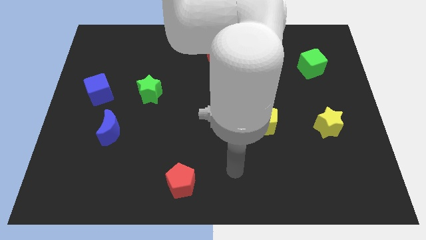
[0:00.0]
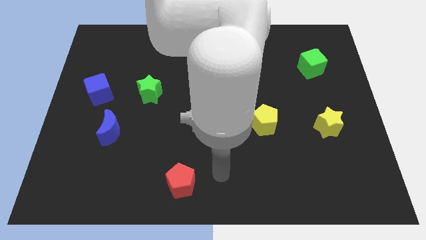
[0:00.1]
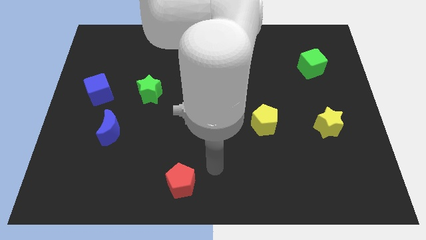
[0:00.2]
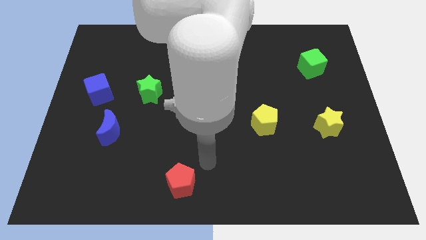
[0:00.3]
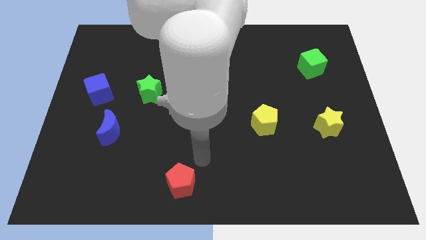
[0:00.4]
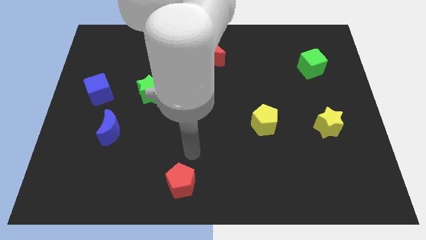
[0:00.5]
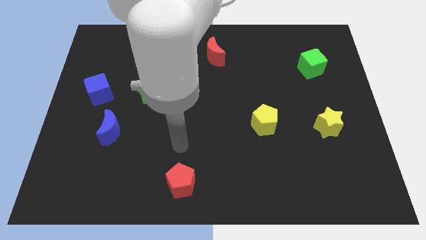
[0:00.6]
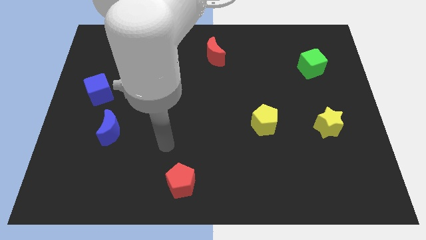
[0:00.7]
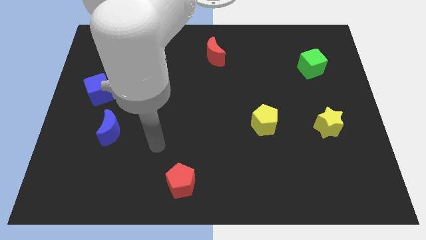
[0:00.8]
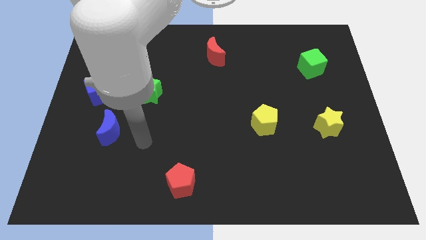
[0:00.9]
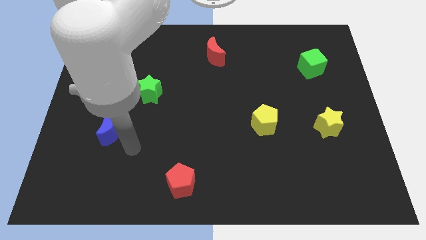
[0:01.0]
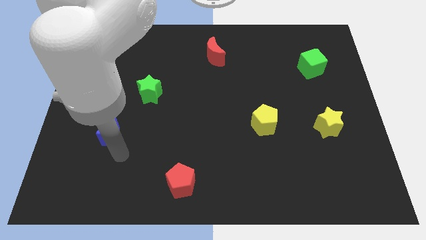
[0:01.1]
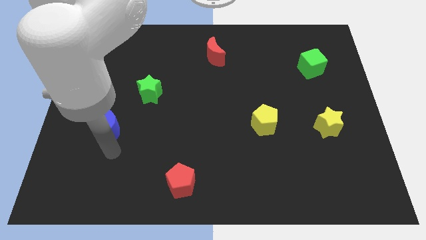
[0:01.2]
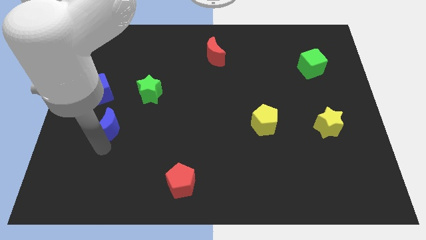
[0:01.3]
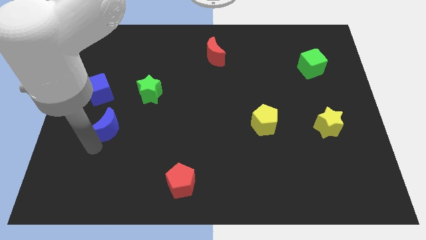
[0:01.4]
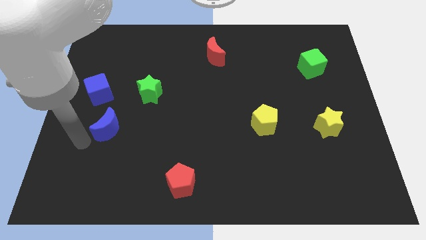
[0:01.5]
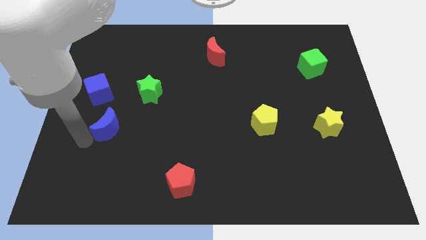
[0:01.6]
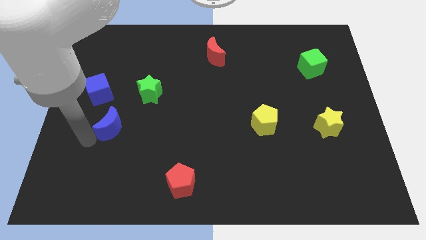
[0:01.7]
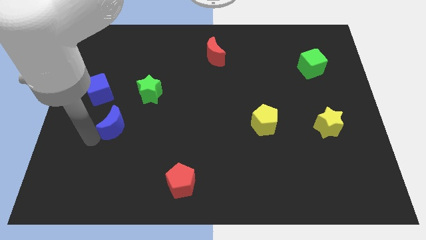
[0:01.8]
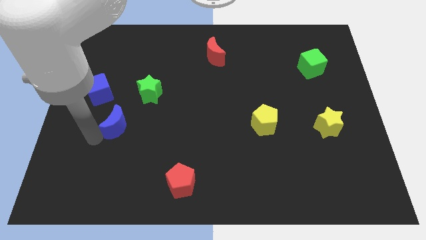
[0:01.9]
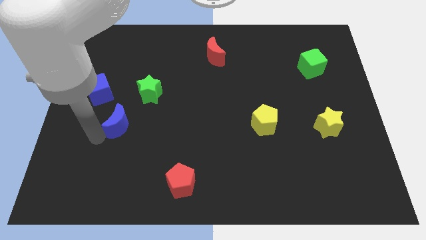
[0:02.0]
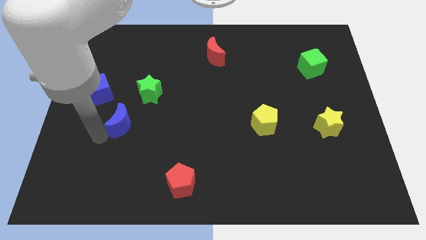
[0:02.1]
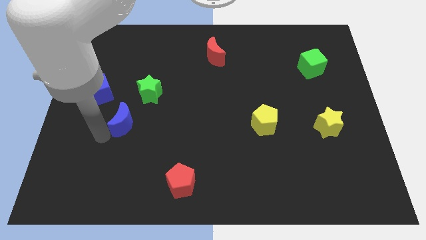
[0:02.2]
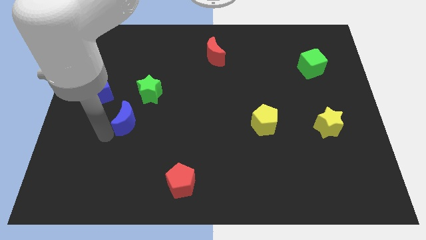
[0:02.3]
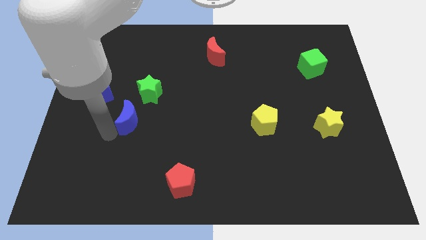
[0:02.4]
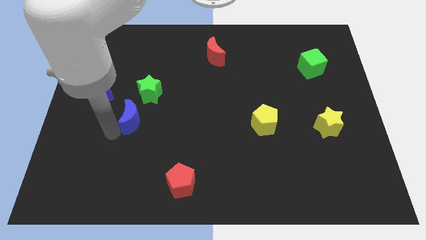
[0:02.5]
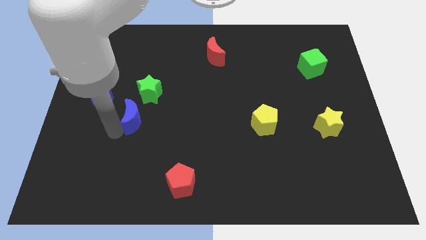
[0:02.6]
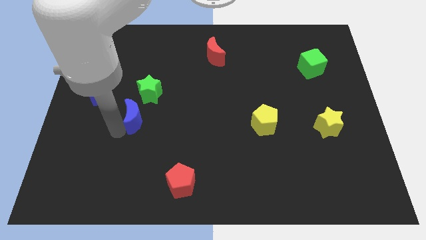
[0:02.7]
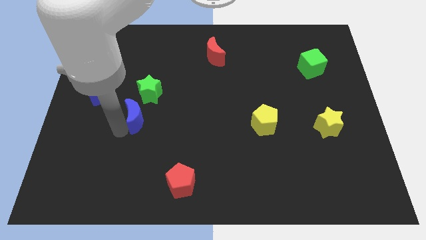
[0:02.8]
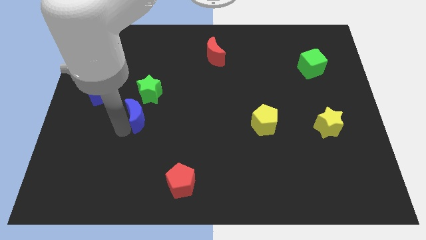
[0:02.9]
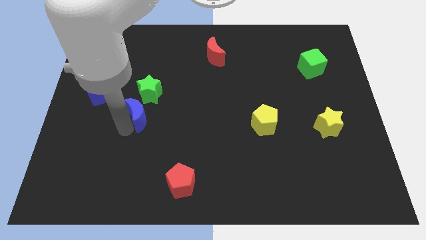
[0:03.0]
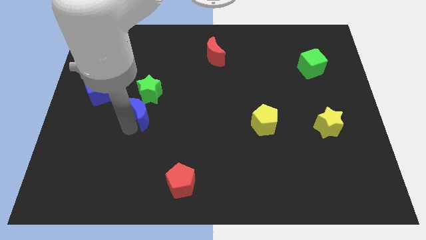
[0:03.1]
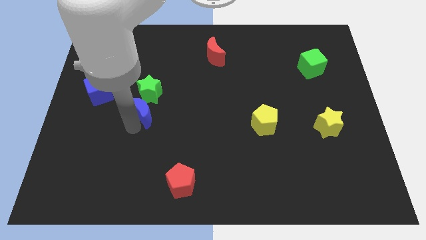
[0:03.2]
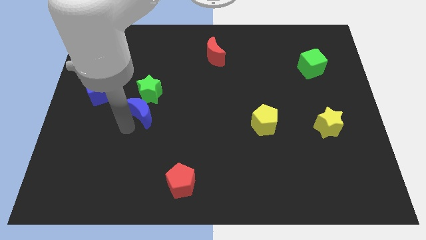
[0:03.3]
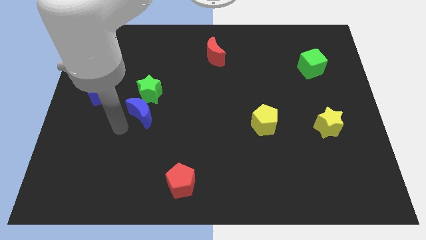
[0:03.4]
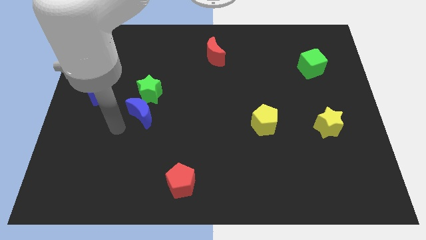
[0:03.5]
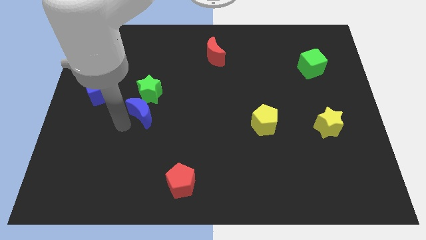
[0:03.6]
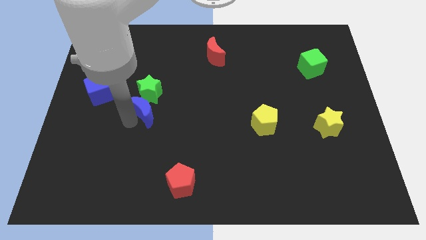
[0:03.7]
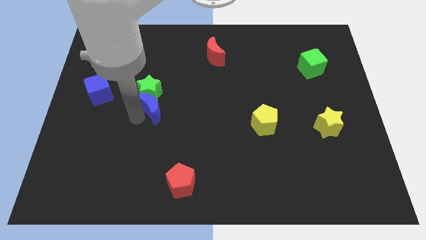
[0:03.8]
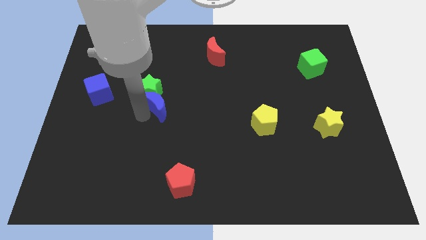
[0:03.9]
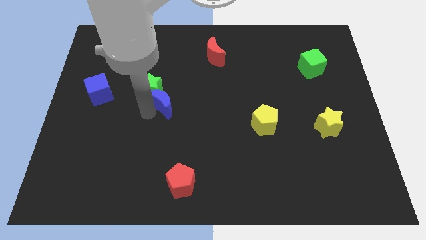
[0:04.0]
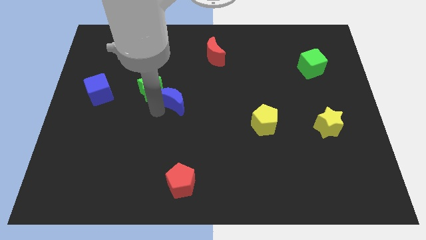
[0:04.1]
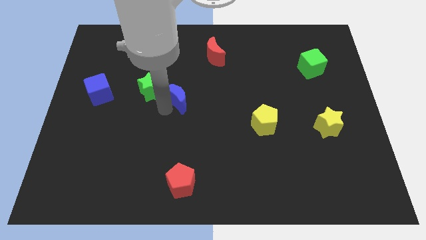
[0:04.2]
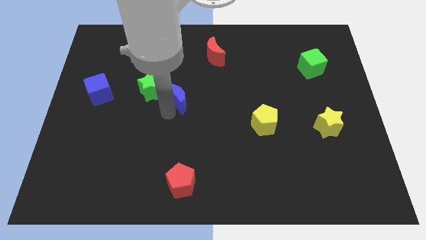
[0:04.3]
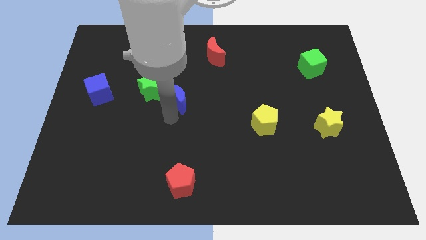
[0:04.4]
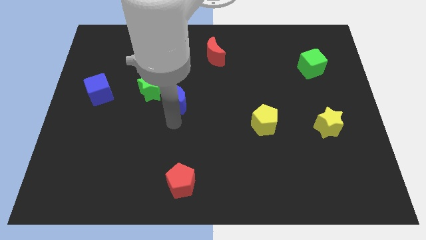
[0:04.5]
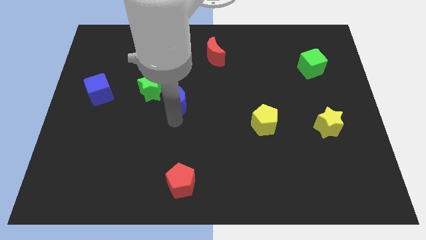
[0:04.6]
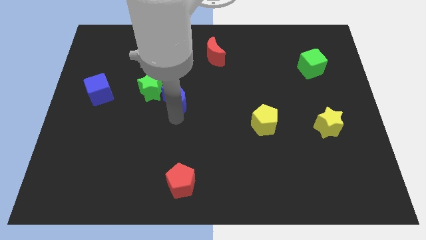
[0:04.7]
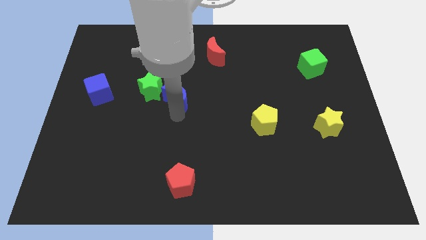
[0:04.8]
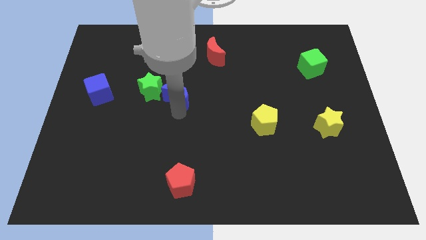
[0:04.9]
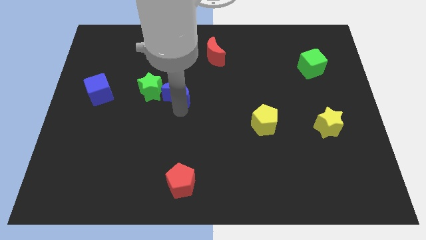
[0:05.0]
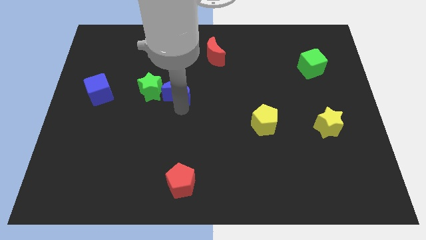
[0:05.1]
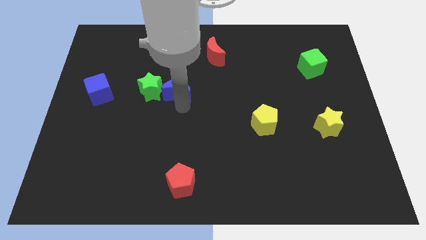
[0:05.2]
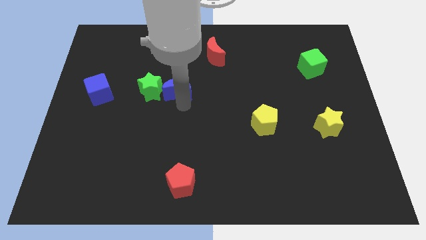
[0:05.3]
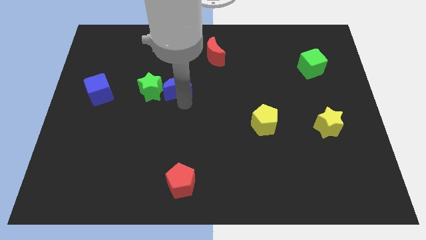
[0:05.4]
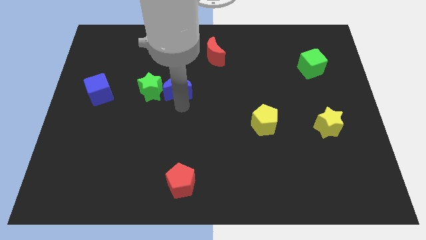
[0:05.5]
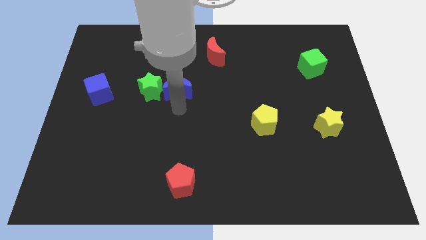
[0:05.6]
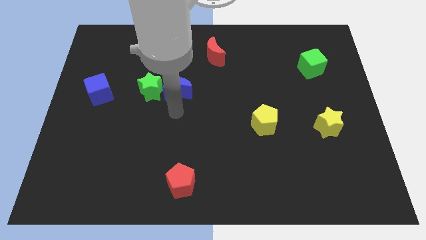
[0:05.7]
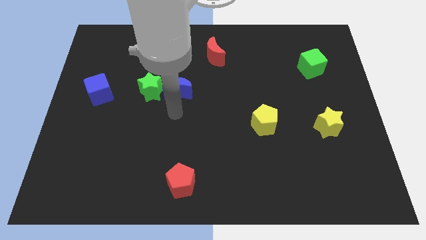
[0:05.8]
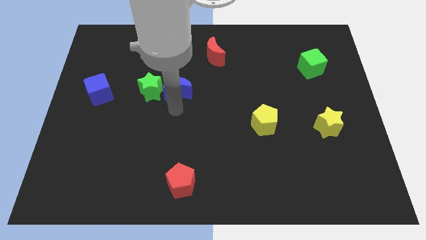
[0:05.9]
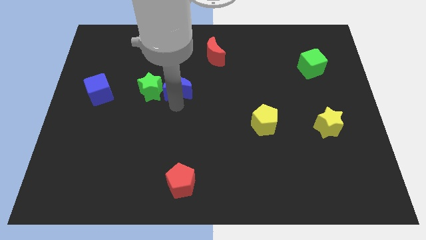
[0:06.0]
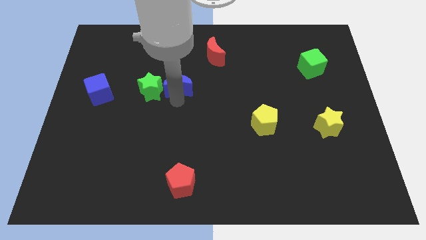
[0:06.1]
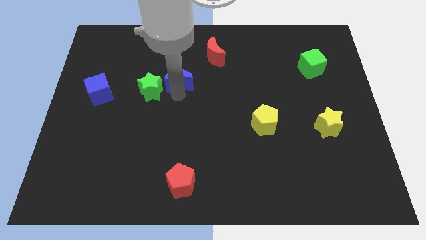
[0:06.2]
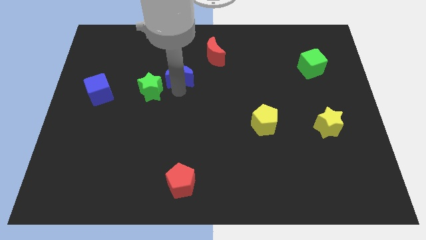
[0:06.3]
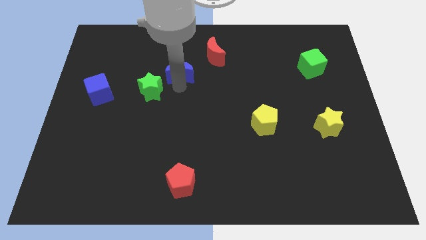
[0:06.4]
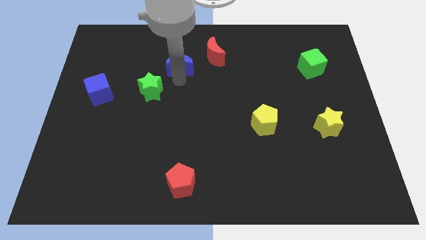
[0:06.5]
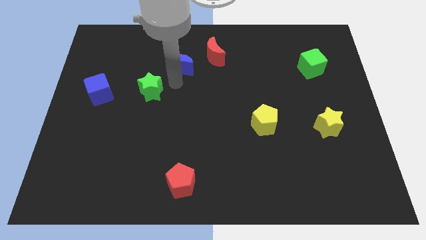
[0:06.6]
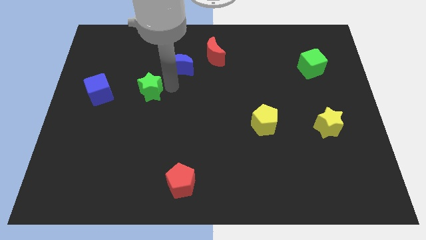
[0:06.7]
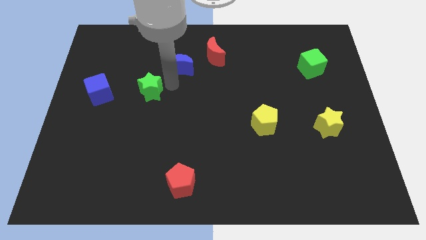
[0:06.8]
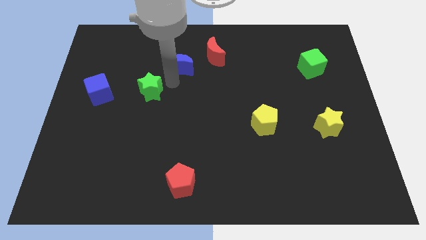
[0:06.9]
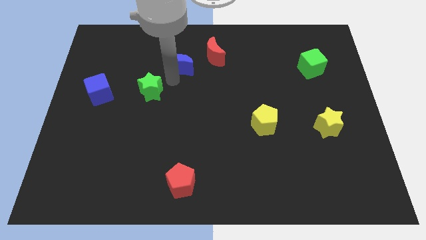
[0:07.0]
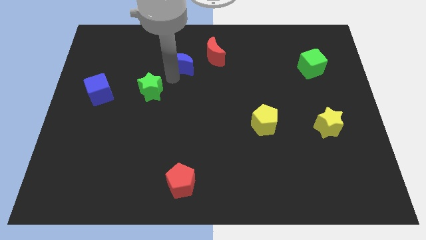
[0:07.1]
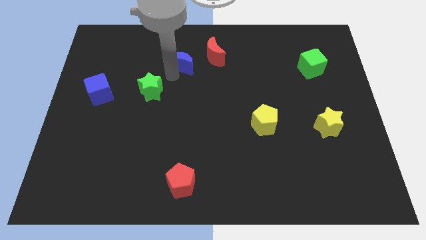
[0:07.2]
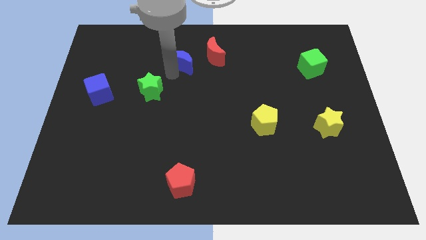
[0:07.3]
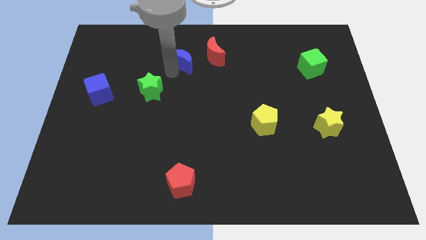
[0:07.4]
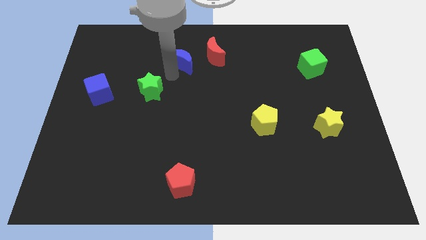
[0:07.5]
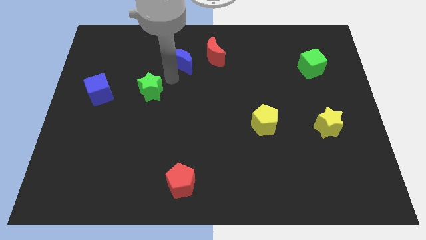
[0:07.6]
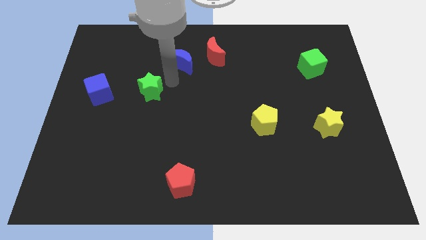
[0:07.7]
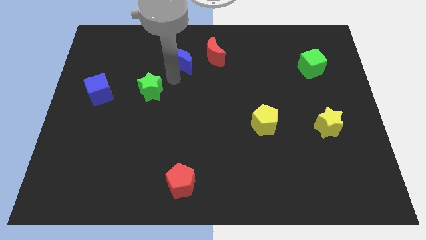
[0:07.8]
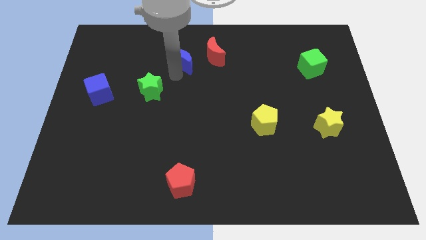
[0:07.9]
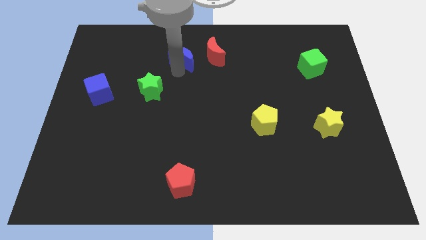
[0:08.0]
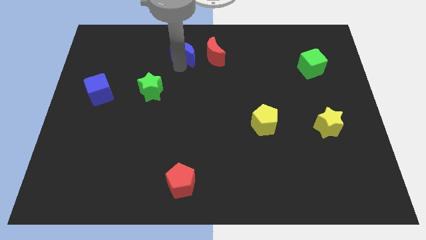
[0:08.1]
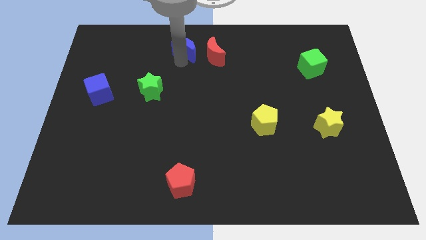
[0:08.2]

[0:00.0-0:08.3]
move the blue moon to the top side
